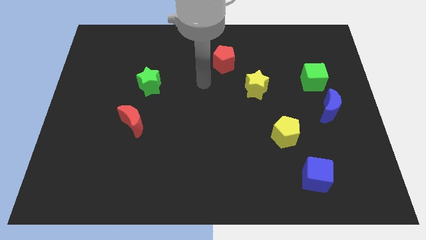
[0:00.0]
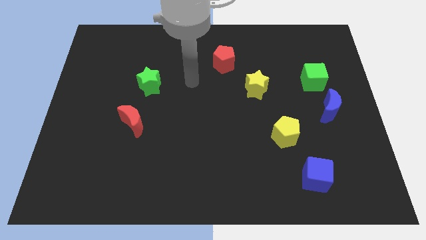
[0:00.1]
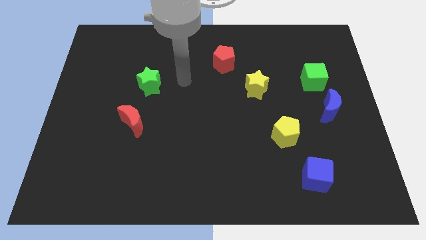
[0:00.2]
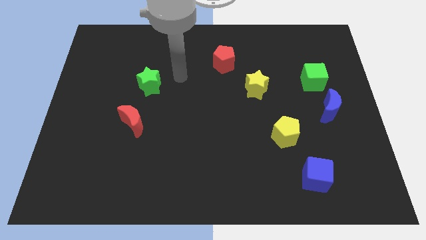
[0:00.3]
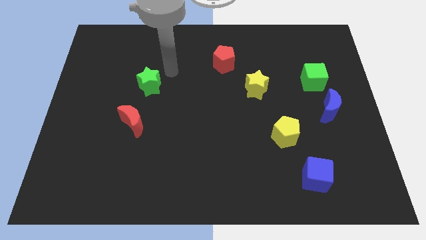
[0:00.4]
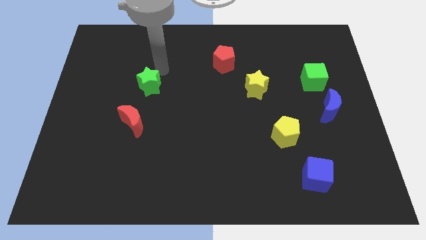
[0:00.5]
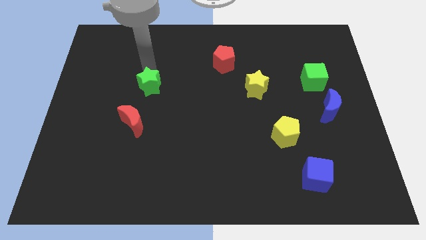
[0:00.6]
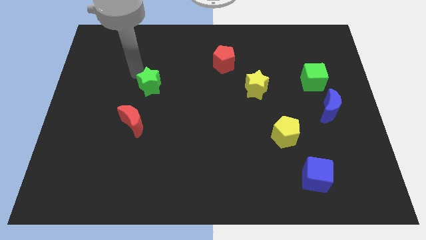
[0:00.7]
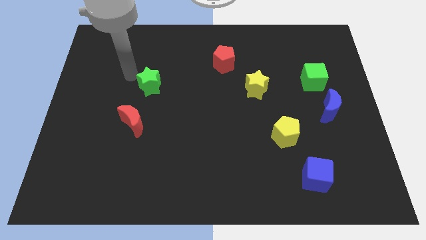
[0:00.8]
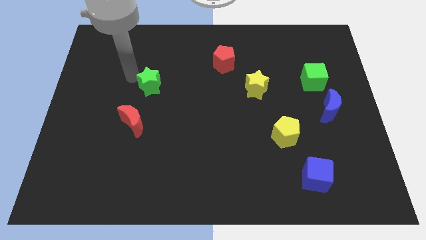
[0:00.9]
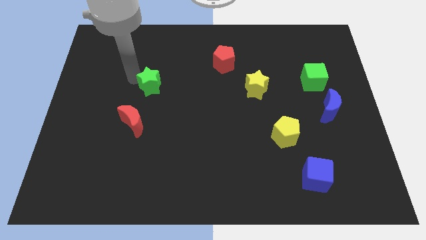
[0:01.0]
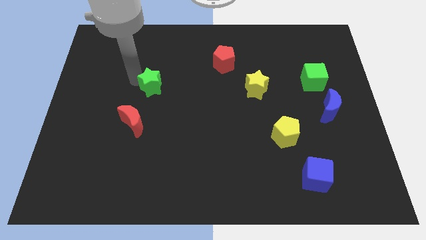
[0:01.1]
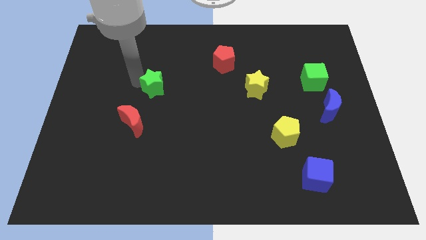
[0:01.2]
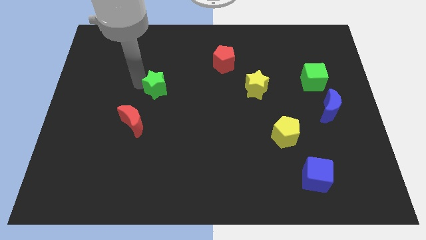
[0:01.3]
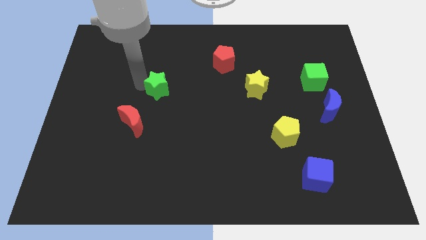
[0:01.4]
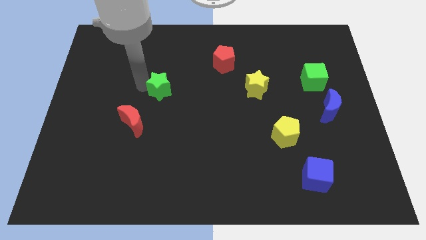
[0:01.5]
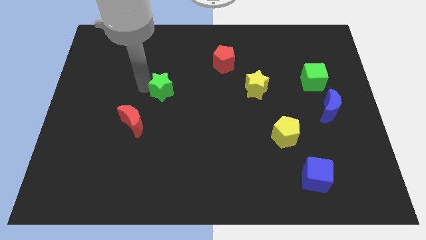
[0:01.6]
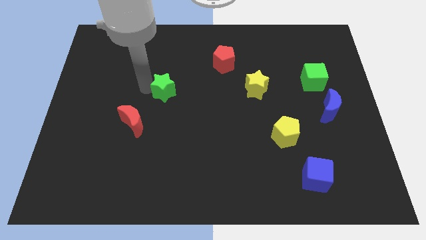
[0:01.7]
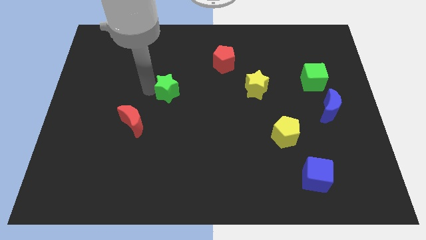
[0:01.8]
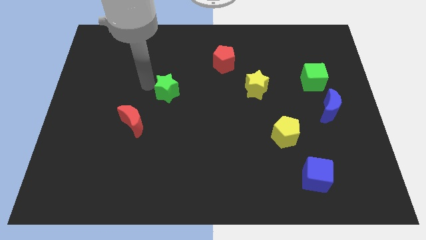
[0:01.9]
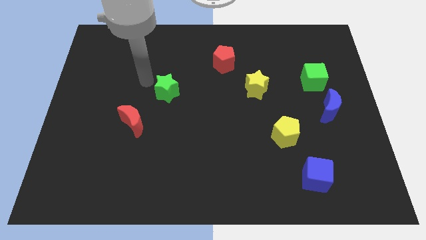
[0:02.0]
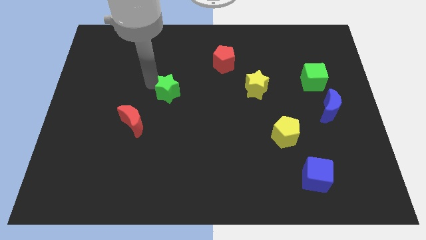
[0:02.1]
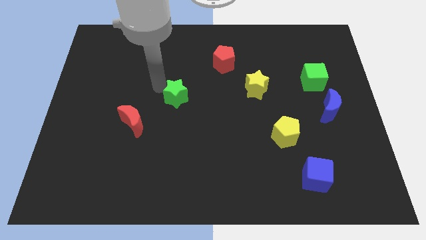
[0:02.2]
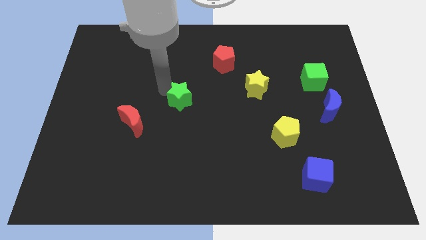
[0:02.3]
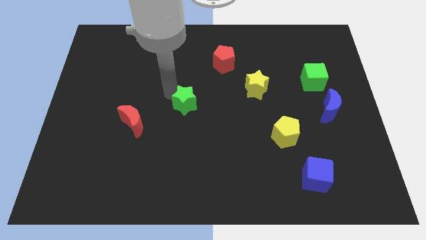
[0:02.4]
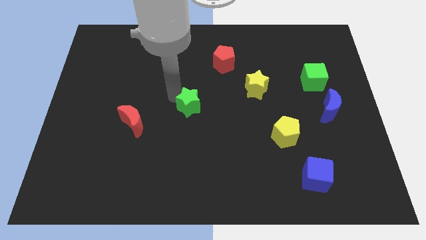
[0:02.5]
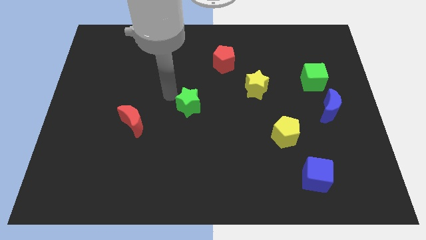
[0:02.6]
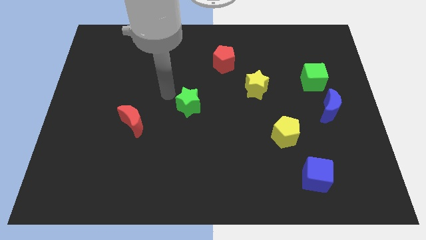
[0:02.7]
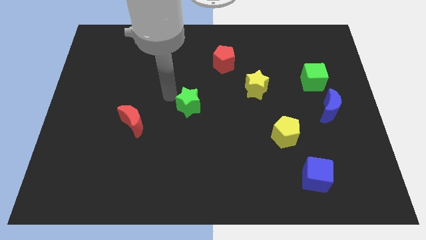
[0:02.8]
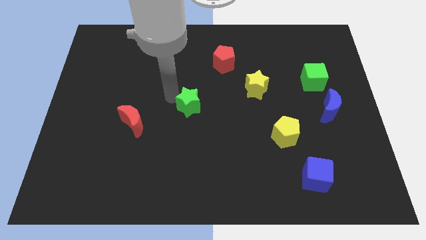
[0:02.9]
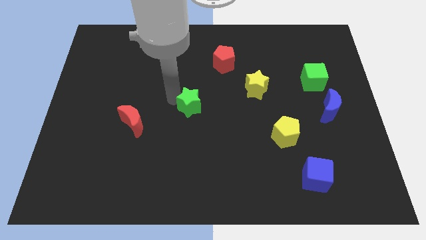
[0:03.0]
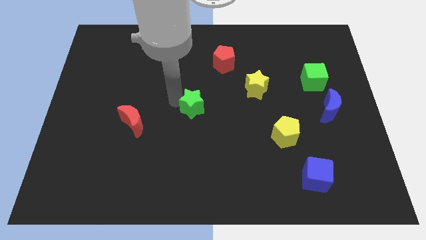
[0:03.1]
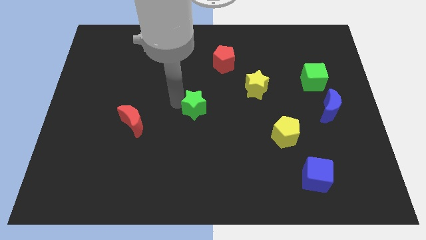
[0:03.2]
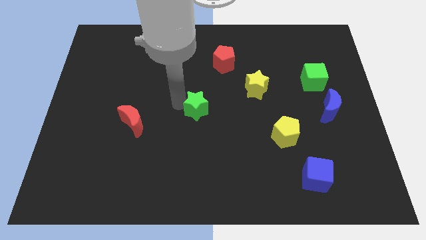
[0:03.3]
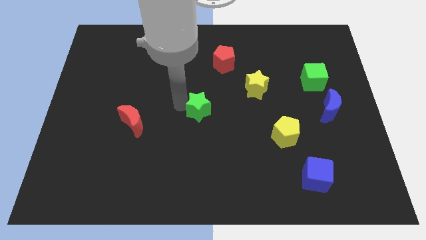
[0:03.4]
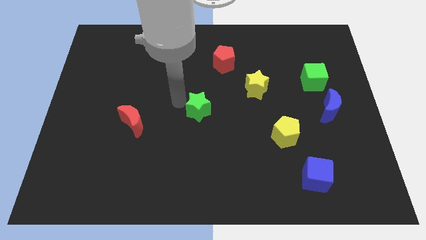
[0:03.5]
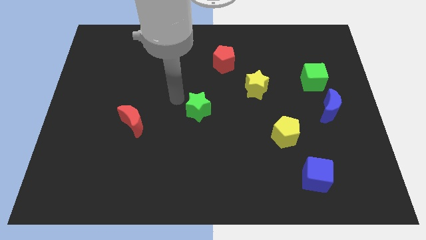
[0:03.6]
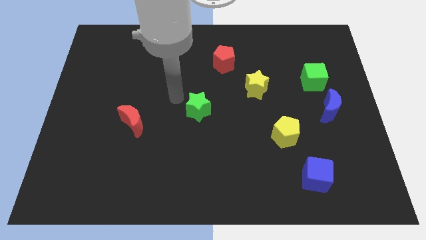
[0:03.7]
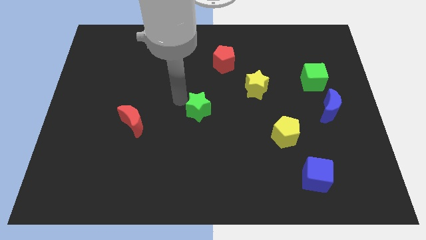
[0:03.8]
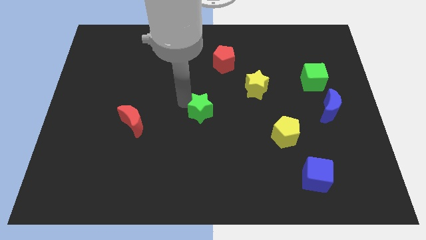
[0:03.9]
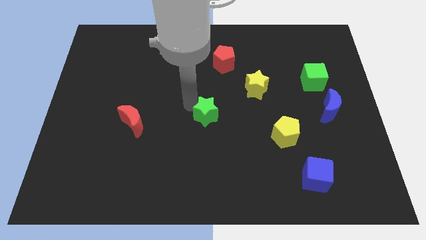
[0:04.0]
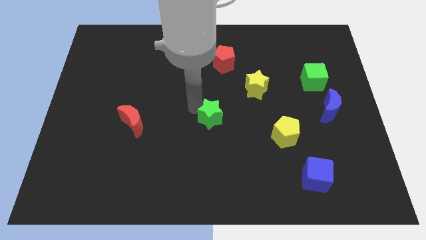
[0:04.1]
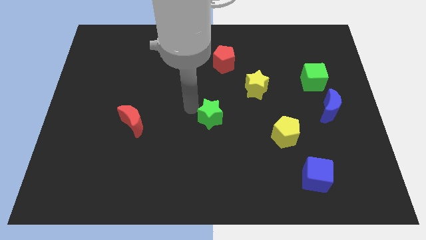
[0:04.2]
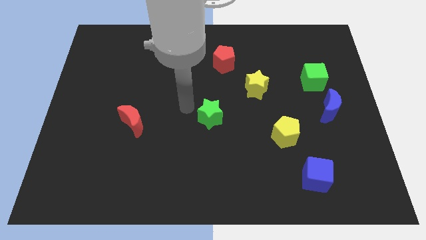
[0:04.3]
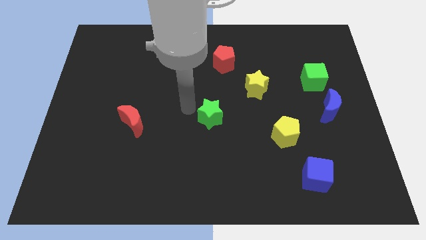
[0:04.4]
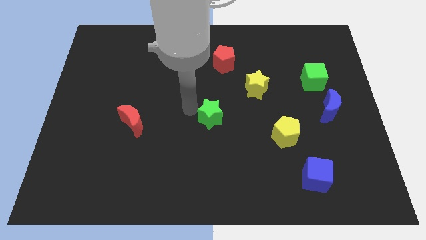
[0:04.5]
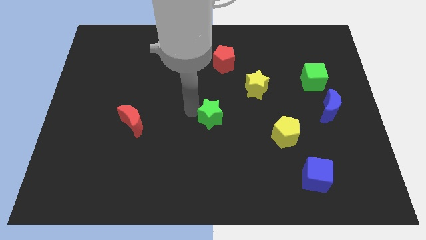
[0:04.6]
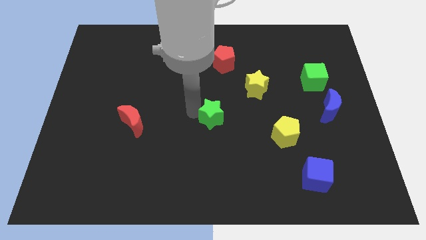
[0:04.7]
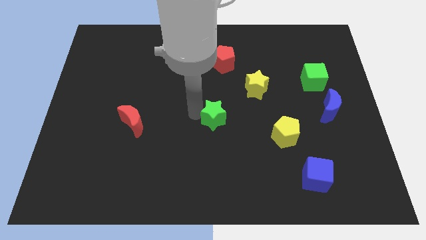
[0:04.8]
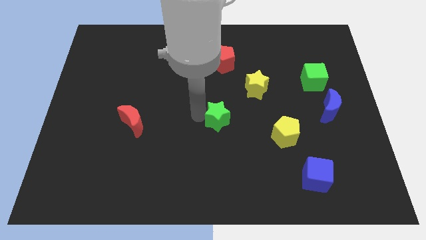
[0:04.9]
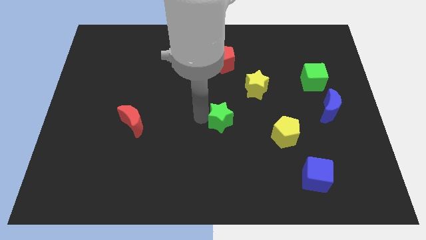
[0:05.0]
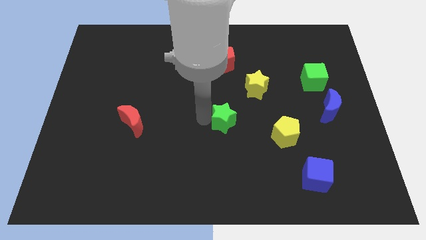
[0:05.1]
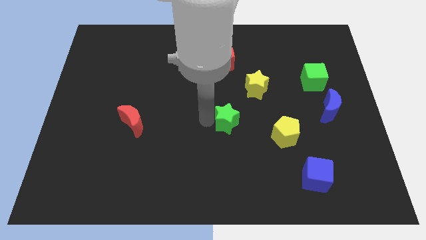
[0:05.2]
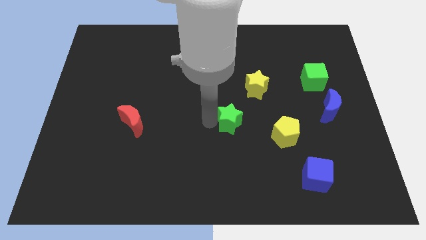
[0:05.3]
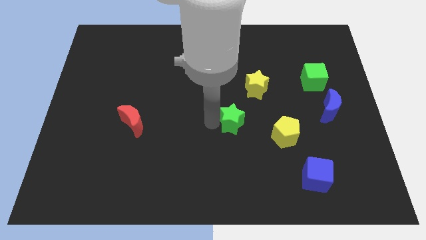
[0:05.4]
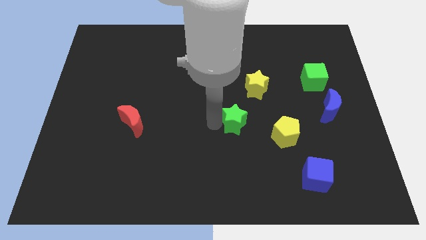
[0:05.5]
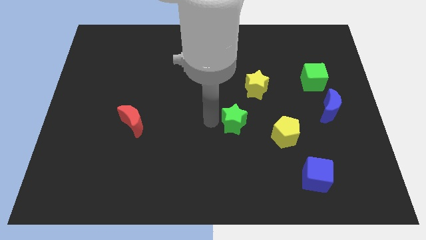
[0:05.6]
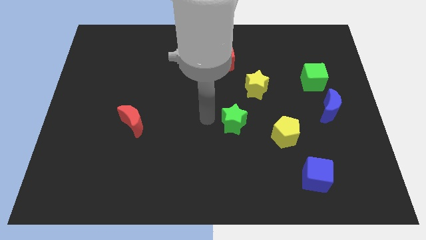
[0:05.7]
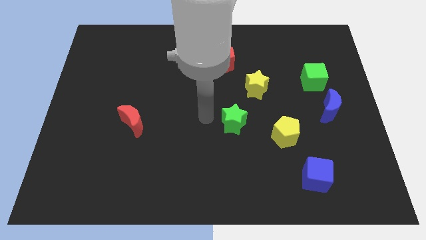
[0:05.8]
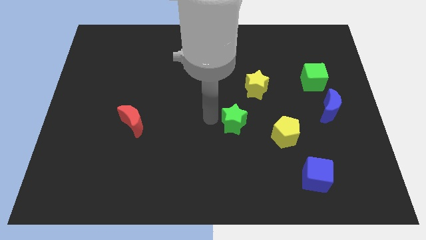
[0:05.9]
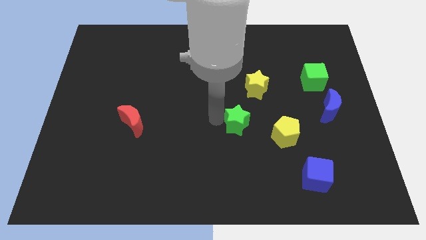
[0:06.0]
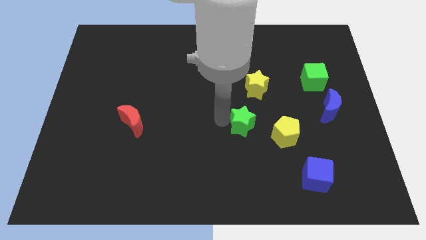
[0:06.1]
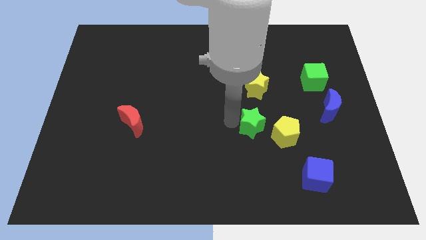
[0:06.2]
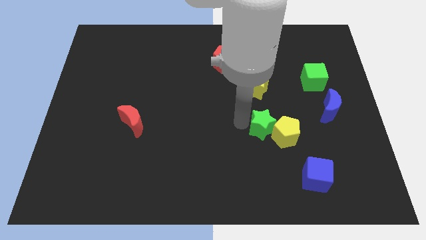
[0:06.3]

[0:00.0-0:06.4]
put the green star towards the yellow pentagon

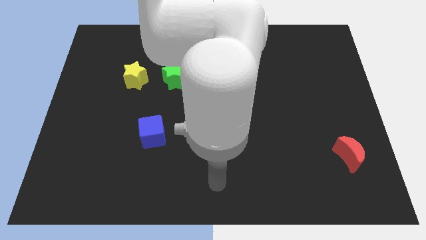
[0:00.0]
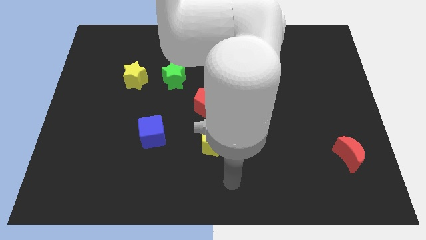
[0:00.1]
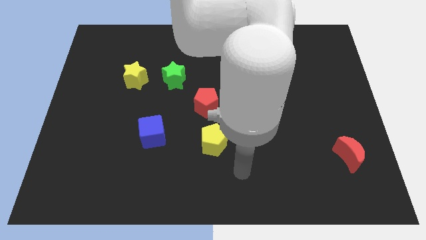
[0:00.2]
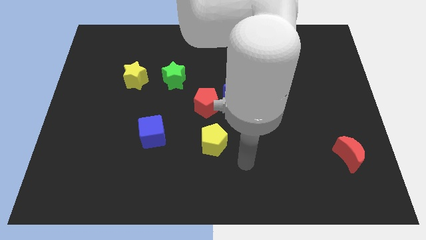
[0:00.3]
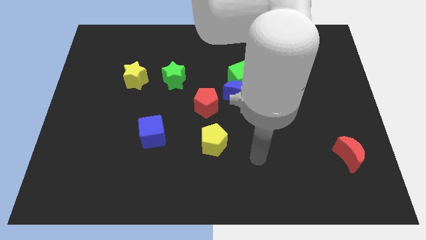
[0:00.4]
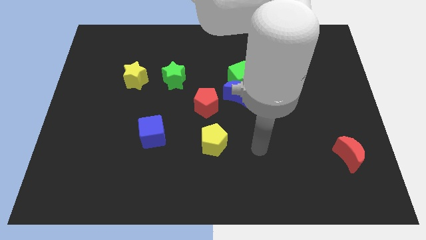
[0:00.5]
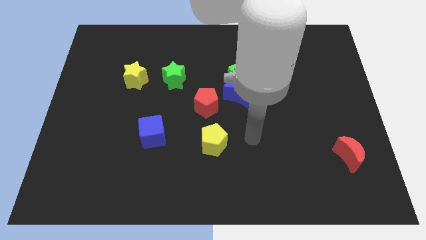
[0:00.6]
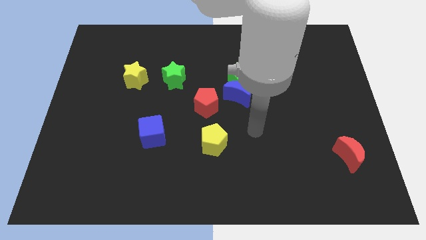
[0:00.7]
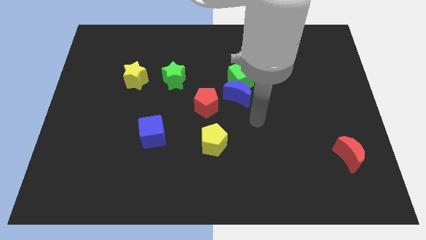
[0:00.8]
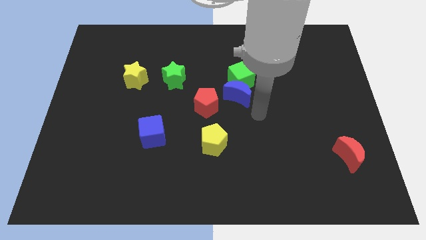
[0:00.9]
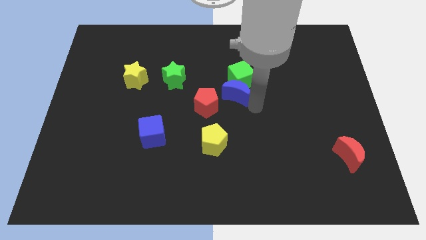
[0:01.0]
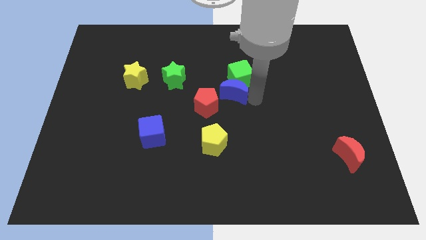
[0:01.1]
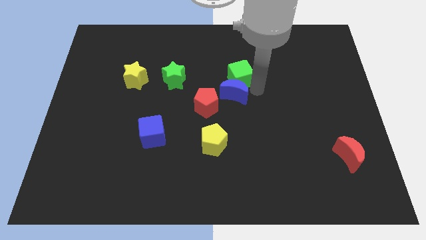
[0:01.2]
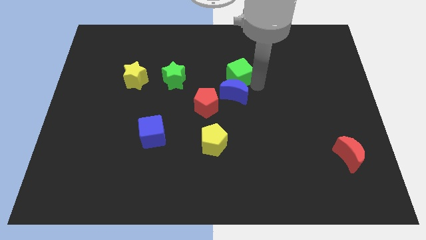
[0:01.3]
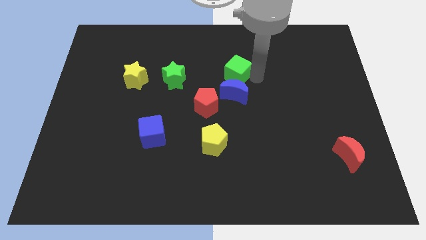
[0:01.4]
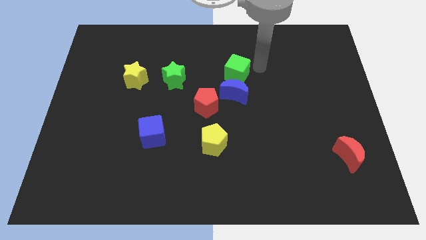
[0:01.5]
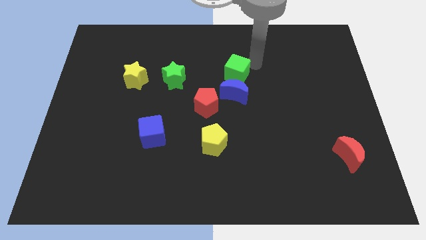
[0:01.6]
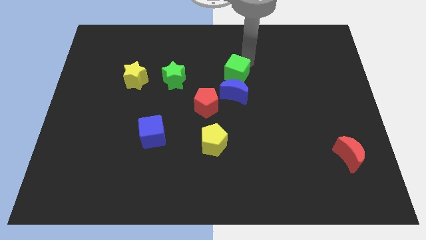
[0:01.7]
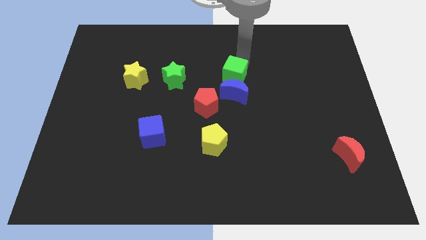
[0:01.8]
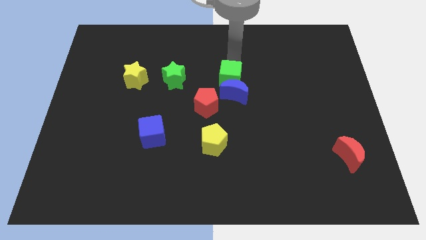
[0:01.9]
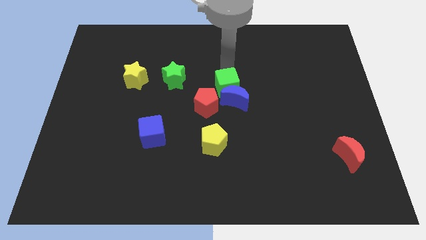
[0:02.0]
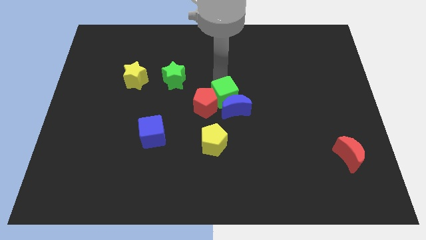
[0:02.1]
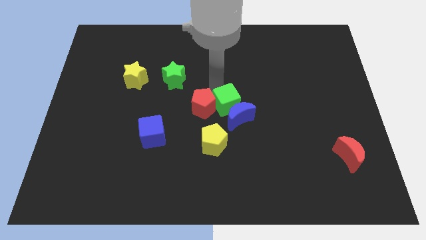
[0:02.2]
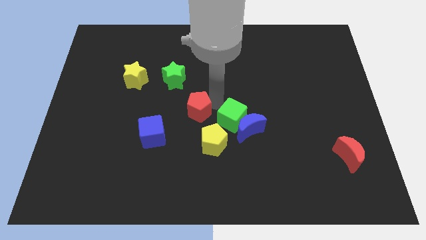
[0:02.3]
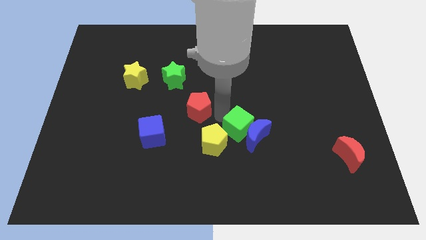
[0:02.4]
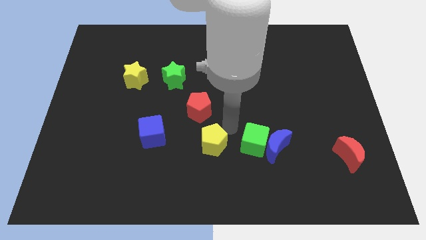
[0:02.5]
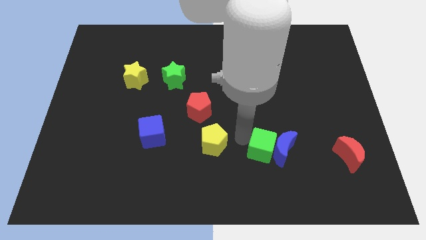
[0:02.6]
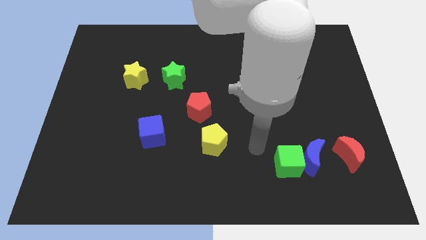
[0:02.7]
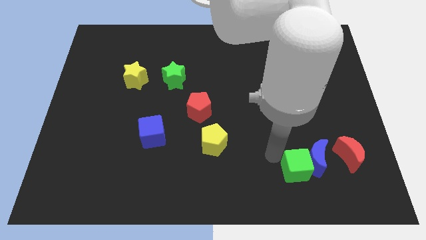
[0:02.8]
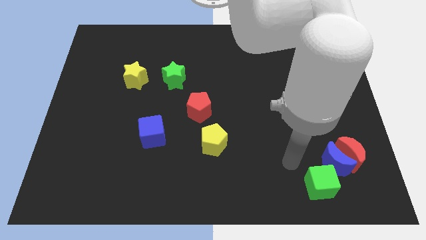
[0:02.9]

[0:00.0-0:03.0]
slide the blue moon to the red moon
